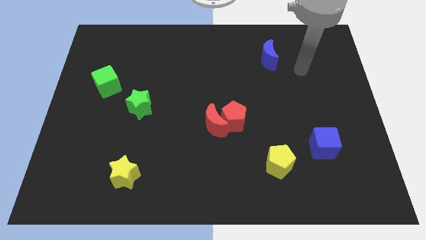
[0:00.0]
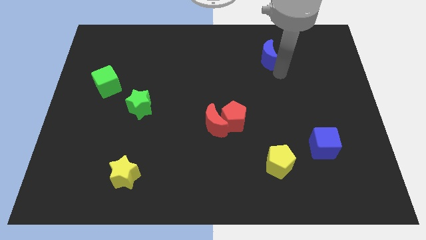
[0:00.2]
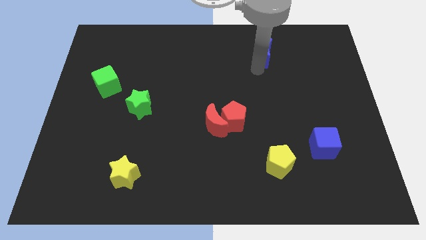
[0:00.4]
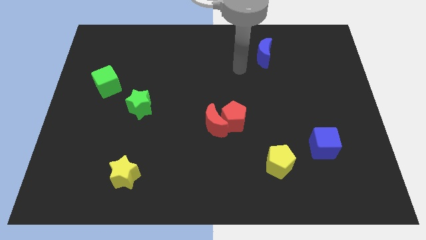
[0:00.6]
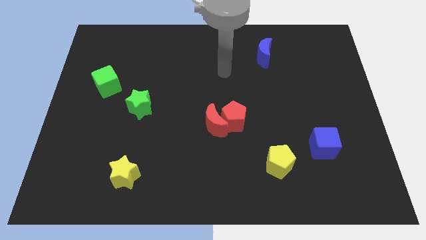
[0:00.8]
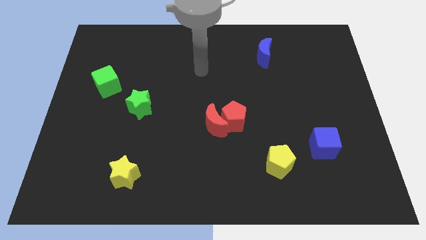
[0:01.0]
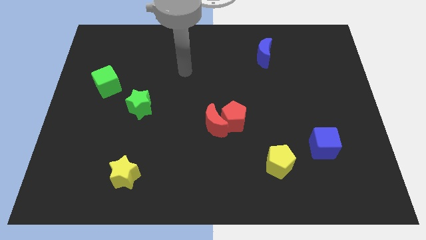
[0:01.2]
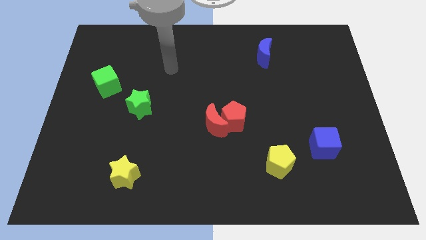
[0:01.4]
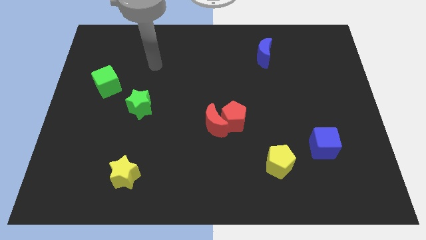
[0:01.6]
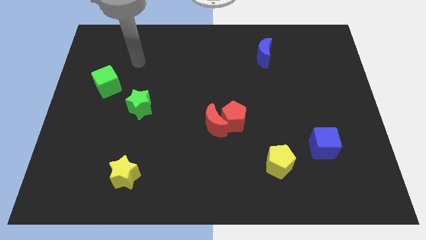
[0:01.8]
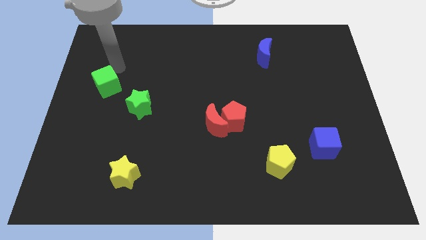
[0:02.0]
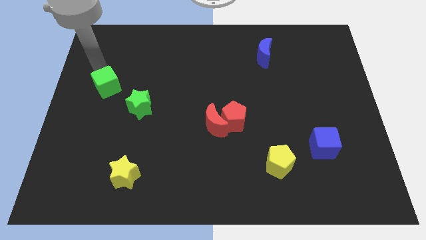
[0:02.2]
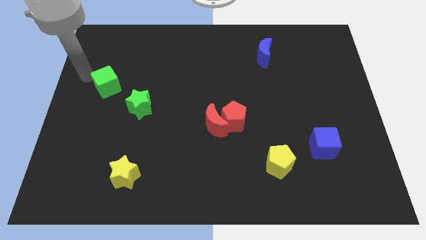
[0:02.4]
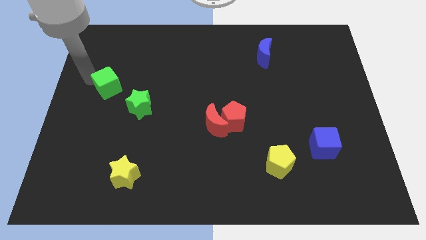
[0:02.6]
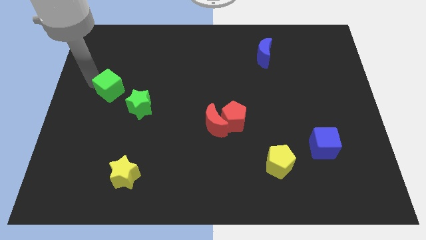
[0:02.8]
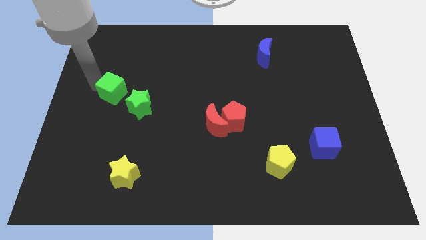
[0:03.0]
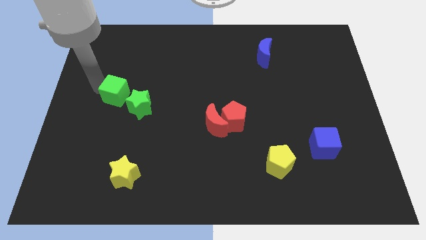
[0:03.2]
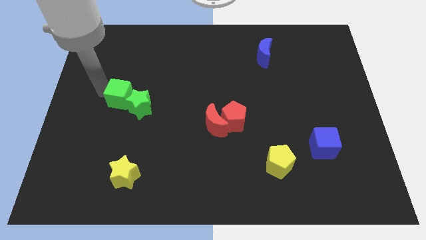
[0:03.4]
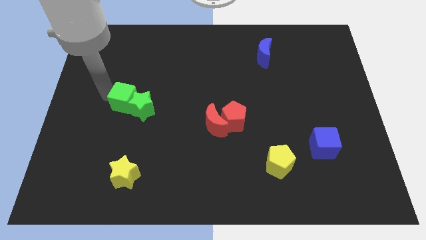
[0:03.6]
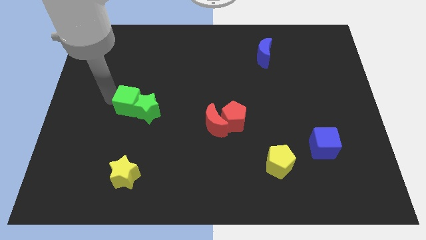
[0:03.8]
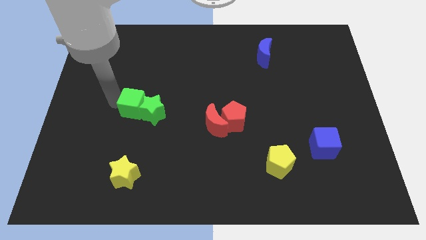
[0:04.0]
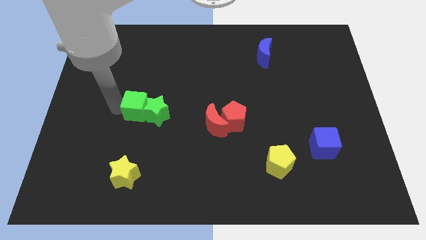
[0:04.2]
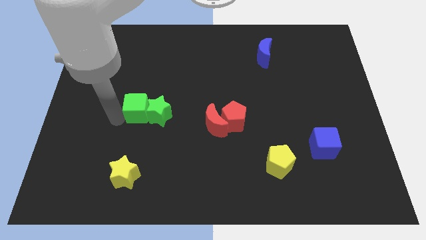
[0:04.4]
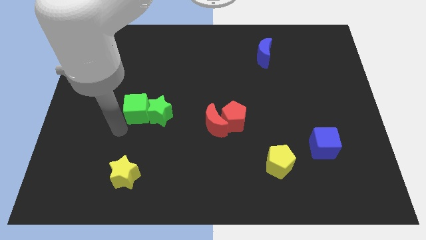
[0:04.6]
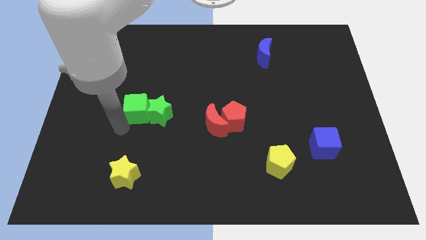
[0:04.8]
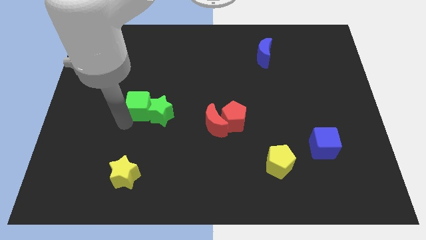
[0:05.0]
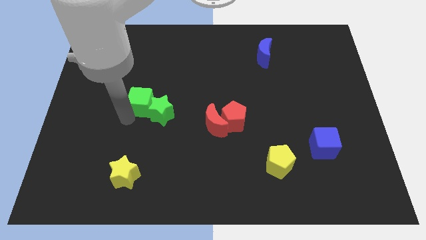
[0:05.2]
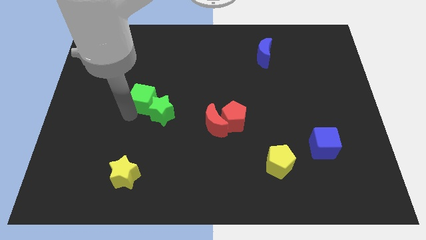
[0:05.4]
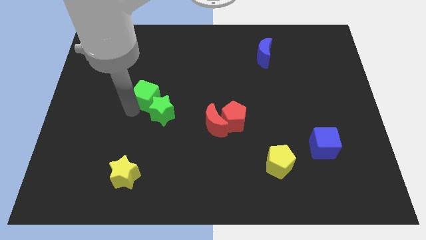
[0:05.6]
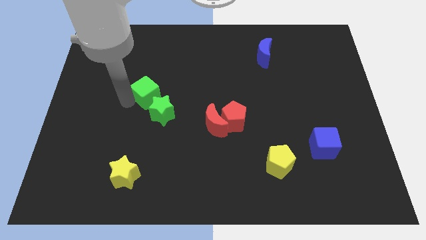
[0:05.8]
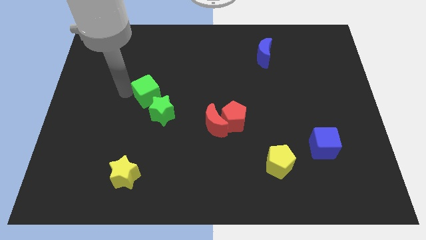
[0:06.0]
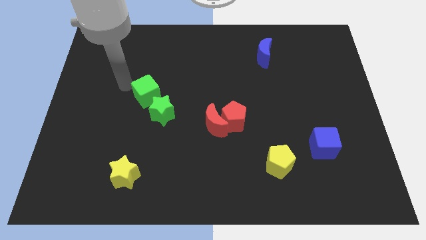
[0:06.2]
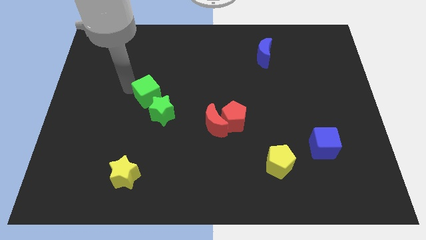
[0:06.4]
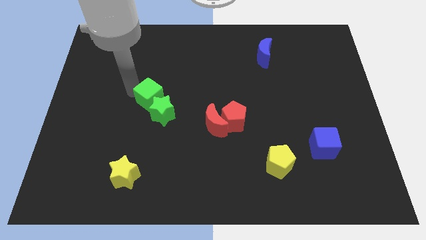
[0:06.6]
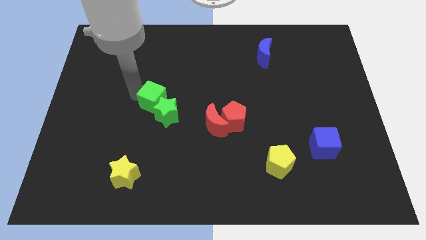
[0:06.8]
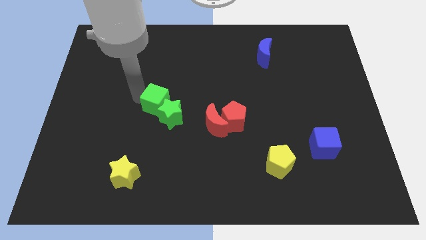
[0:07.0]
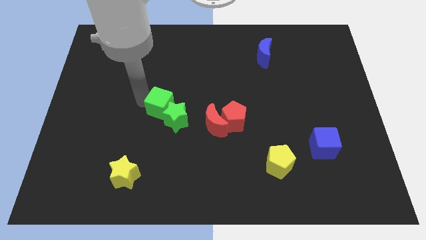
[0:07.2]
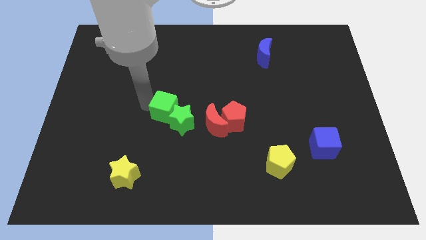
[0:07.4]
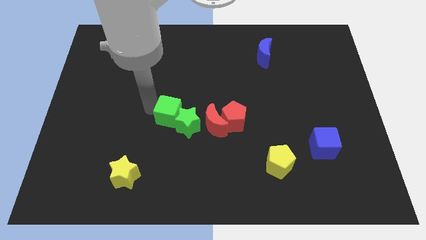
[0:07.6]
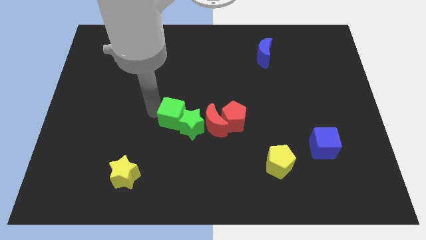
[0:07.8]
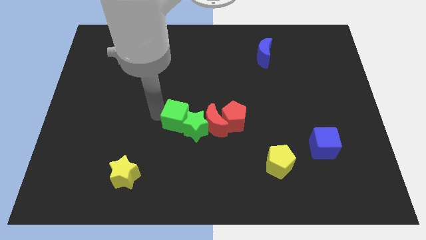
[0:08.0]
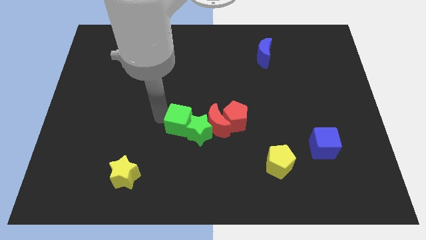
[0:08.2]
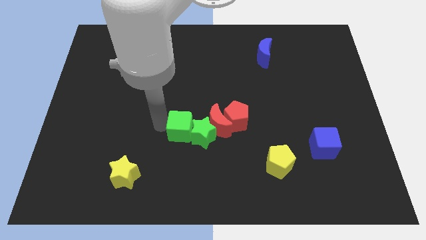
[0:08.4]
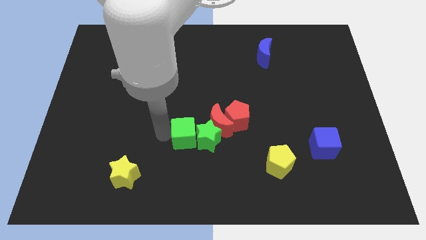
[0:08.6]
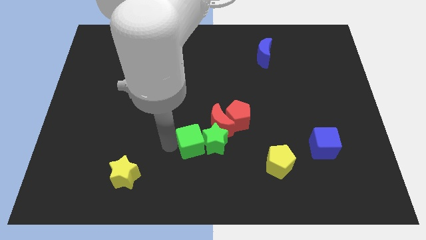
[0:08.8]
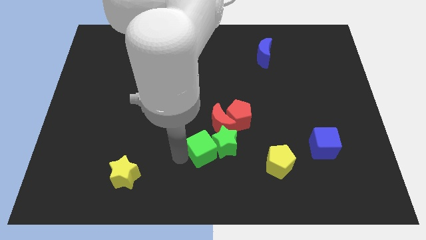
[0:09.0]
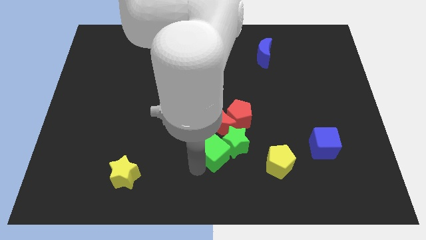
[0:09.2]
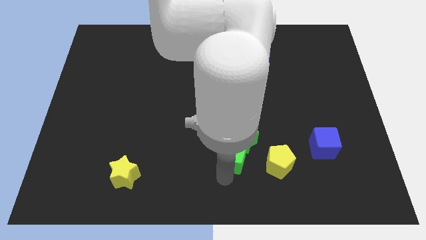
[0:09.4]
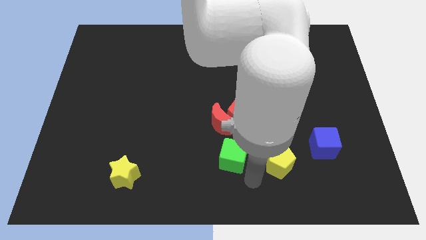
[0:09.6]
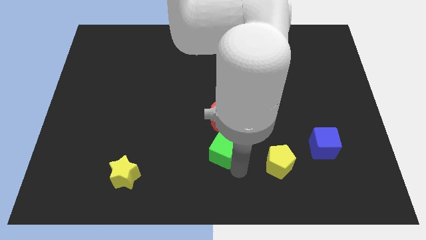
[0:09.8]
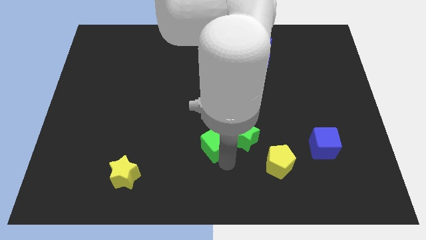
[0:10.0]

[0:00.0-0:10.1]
slide the green cube towards the red moon

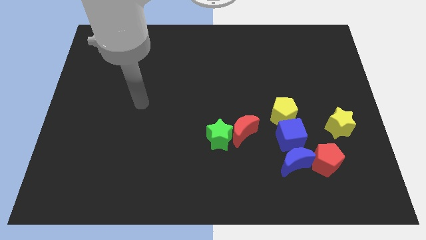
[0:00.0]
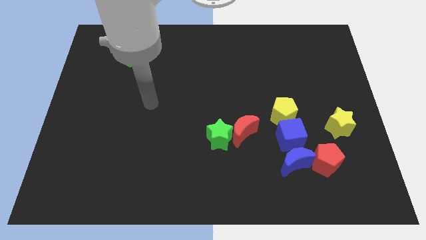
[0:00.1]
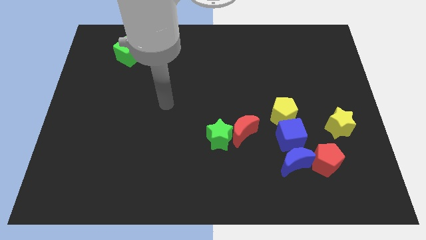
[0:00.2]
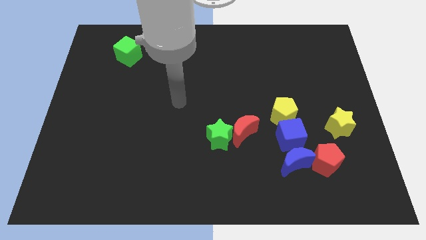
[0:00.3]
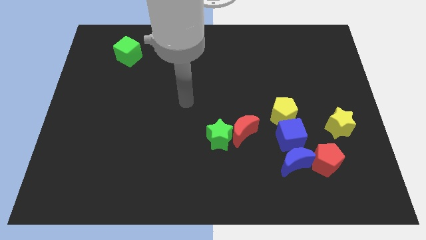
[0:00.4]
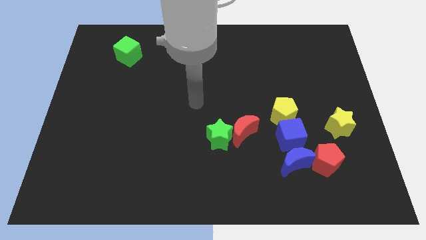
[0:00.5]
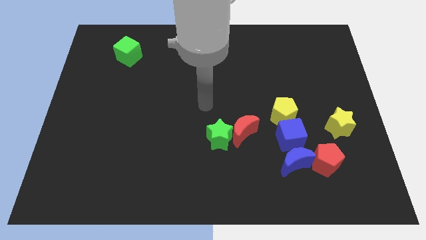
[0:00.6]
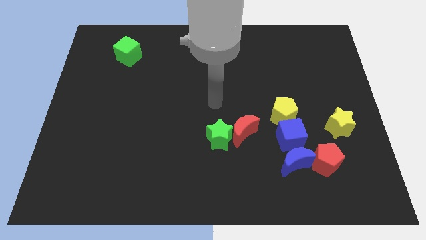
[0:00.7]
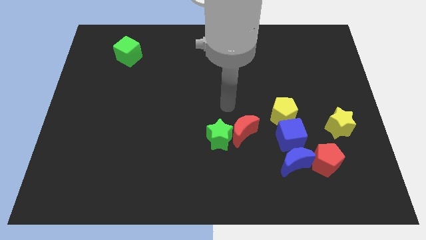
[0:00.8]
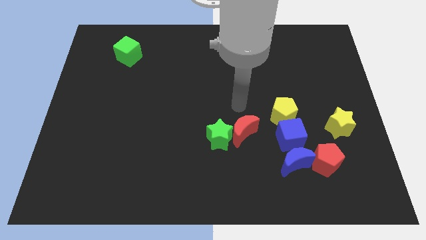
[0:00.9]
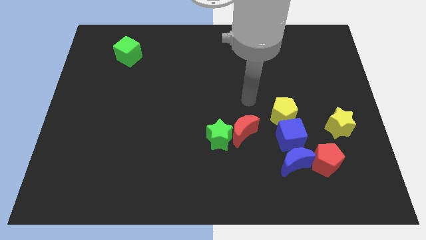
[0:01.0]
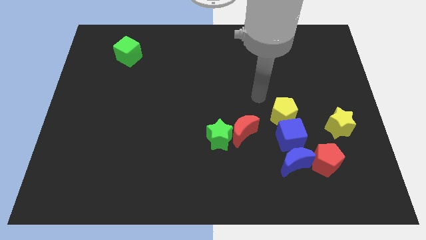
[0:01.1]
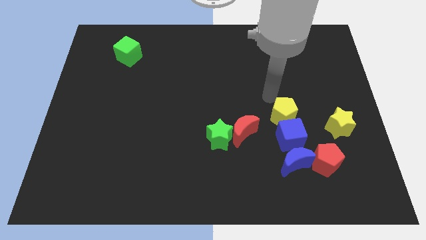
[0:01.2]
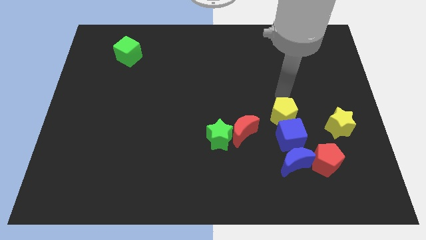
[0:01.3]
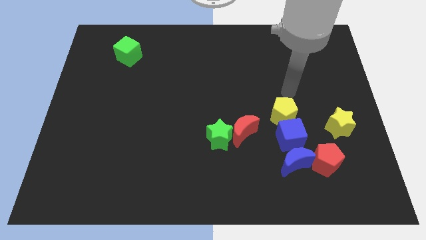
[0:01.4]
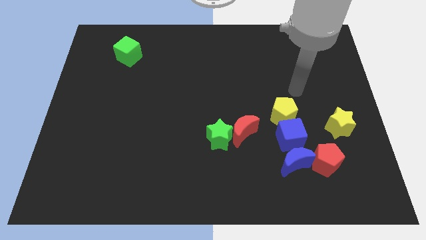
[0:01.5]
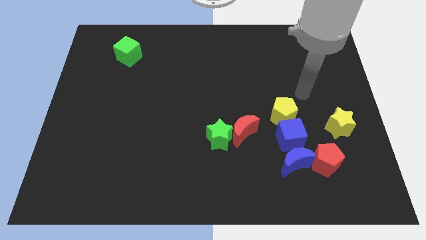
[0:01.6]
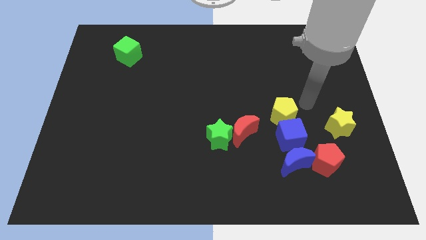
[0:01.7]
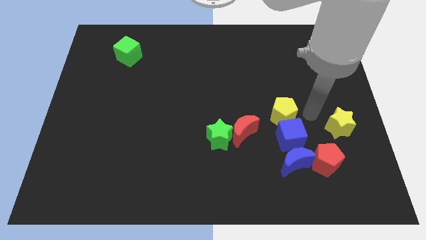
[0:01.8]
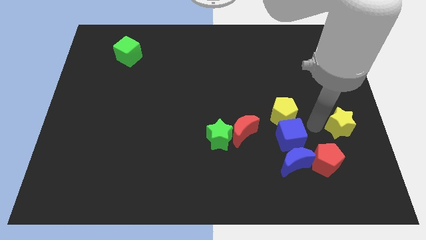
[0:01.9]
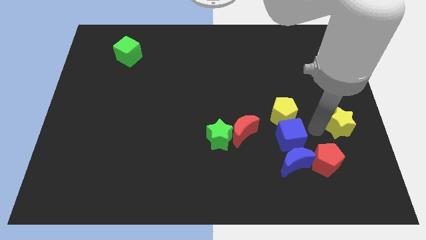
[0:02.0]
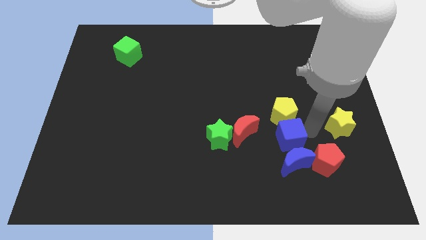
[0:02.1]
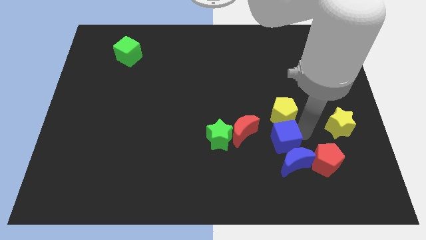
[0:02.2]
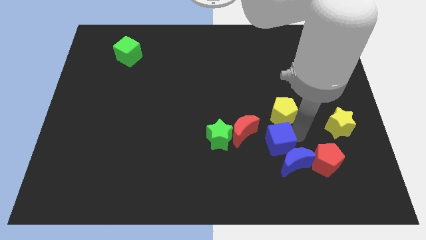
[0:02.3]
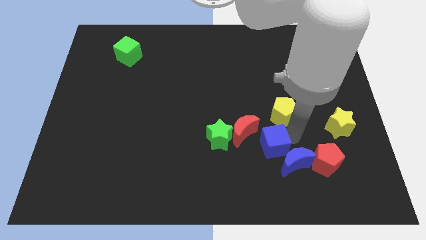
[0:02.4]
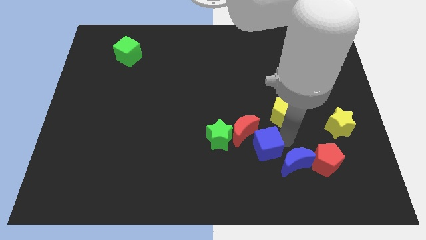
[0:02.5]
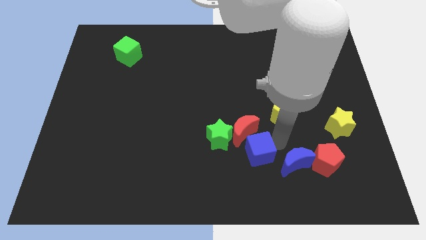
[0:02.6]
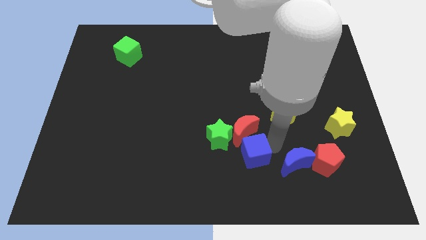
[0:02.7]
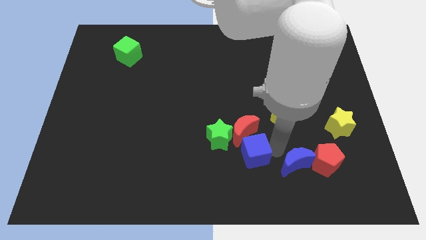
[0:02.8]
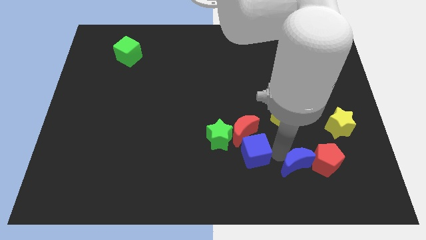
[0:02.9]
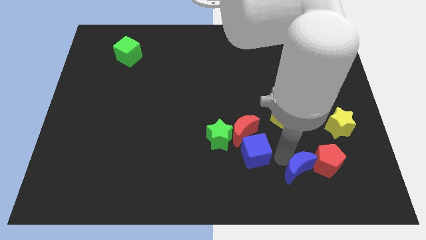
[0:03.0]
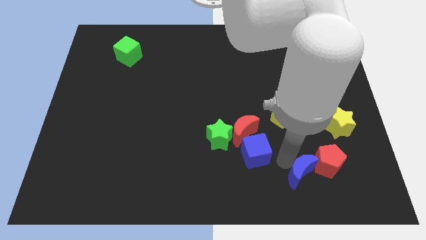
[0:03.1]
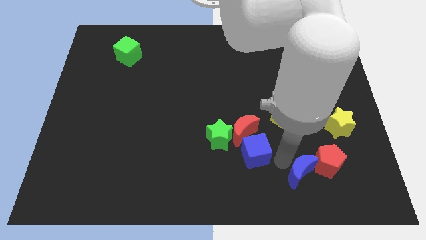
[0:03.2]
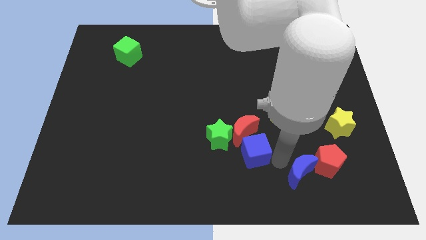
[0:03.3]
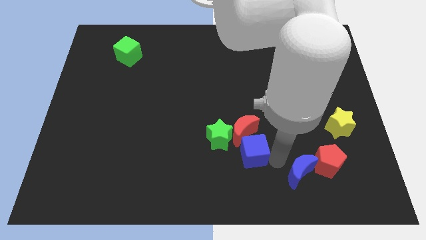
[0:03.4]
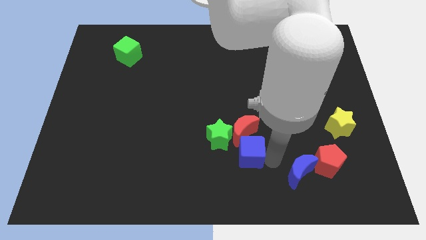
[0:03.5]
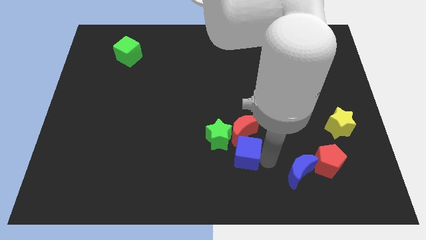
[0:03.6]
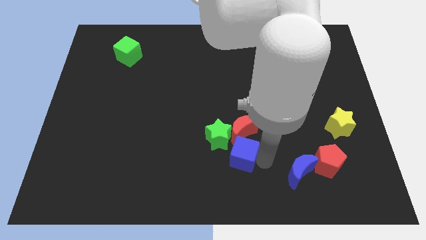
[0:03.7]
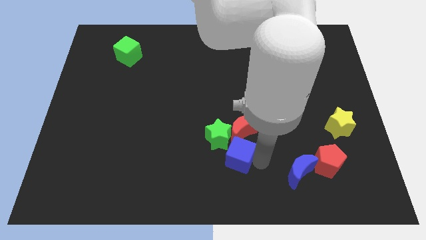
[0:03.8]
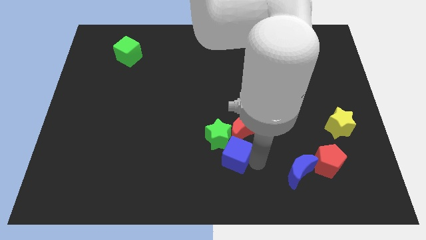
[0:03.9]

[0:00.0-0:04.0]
move the blue cube next to the green star
